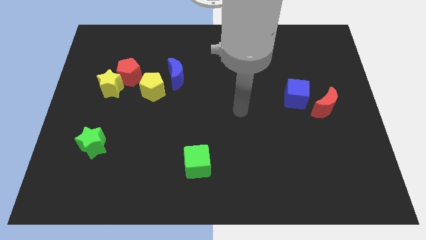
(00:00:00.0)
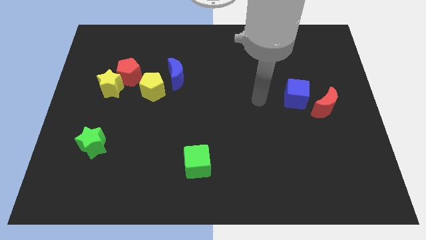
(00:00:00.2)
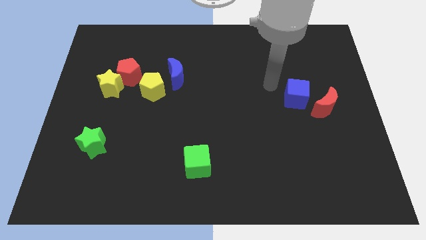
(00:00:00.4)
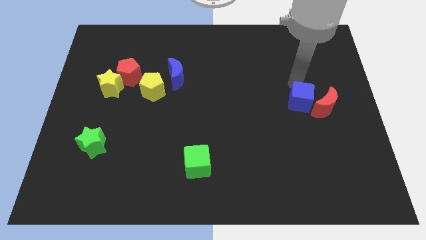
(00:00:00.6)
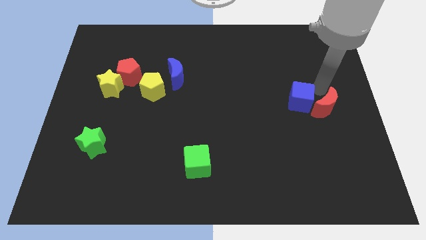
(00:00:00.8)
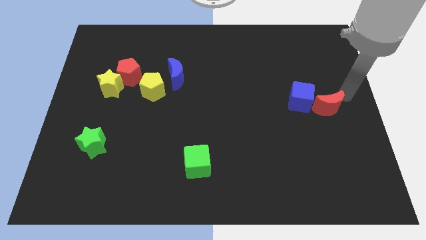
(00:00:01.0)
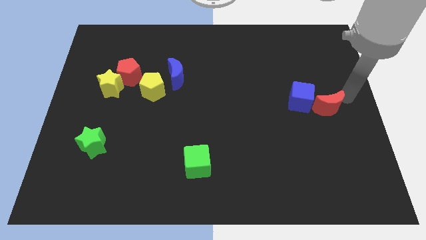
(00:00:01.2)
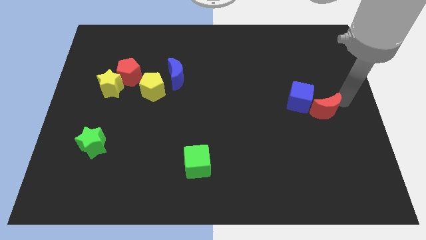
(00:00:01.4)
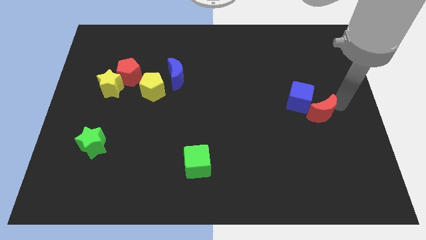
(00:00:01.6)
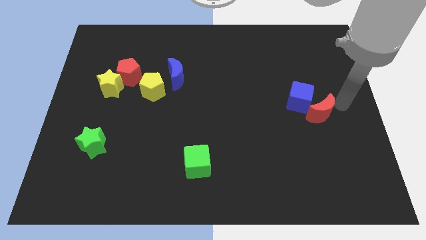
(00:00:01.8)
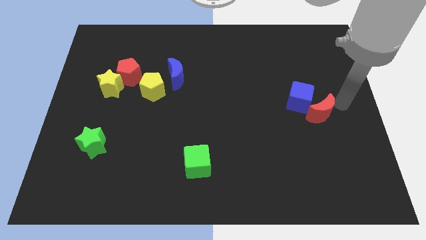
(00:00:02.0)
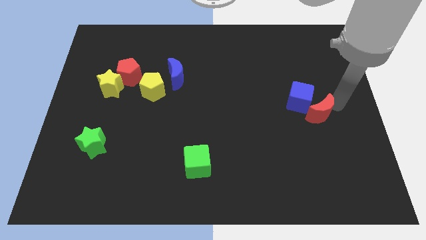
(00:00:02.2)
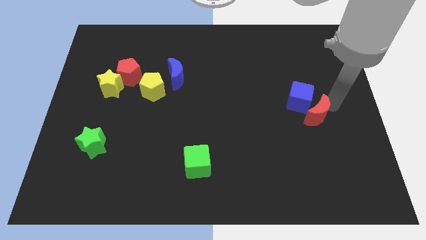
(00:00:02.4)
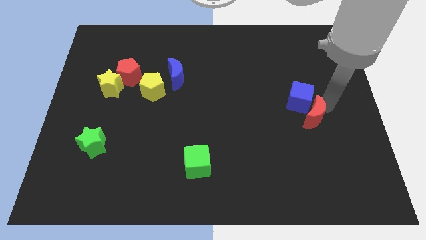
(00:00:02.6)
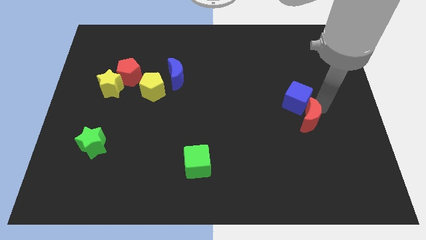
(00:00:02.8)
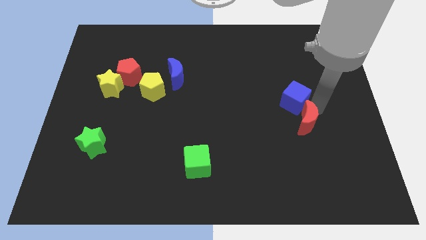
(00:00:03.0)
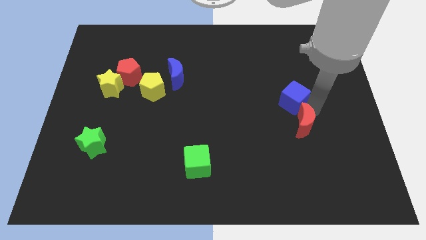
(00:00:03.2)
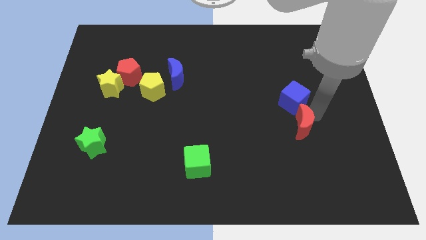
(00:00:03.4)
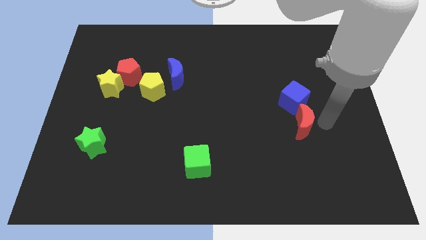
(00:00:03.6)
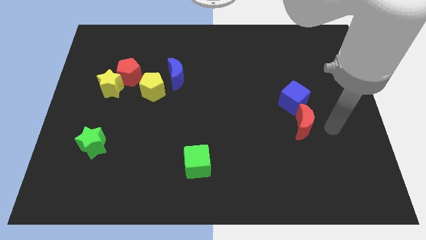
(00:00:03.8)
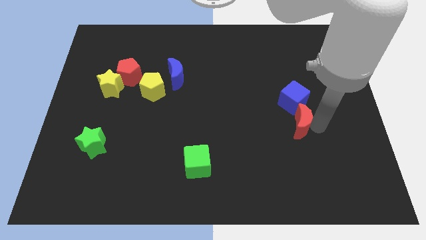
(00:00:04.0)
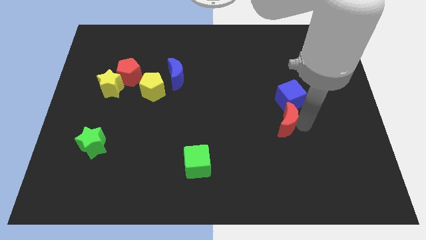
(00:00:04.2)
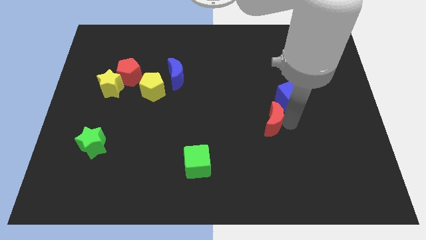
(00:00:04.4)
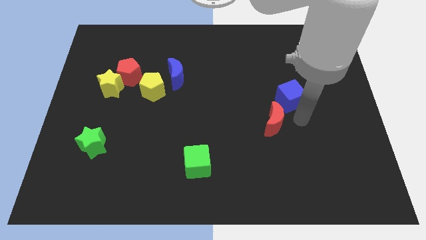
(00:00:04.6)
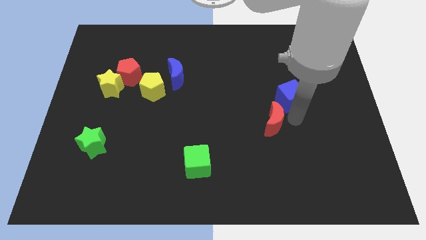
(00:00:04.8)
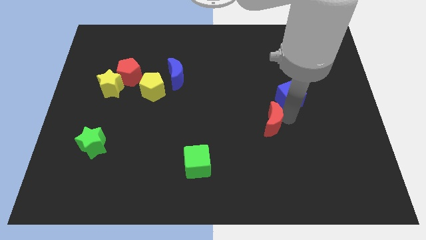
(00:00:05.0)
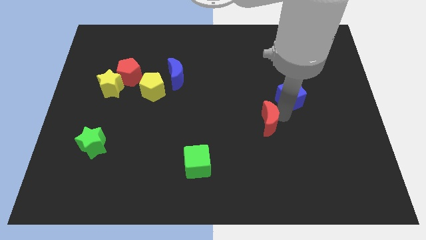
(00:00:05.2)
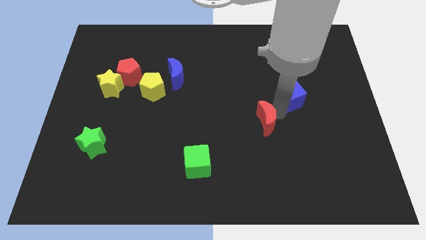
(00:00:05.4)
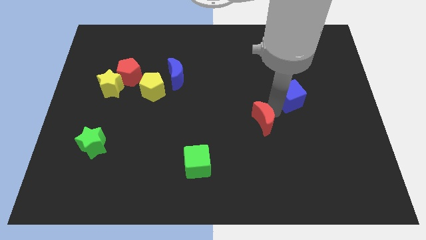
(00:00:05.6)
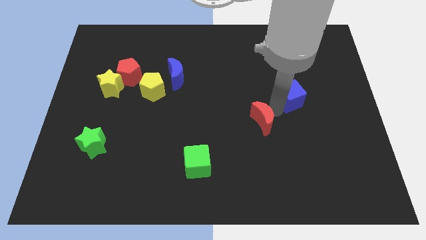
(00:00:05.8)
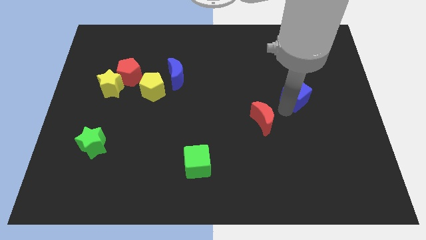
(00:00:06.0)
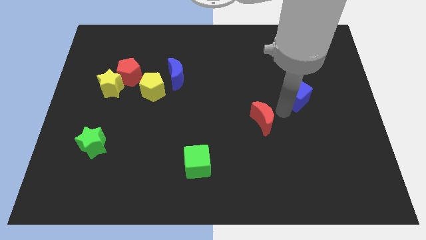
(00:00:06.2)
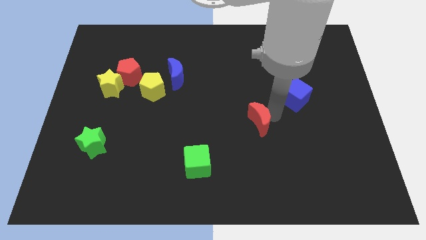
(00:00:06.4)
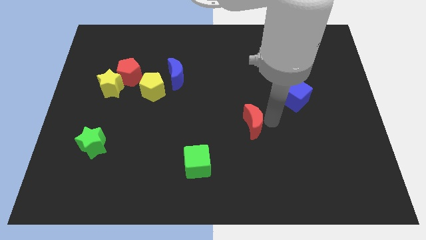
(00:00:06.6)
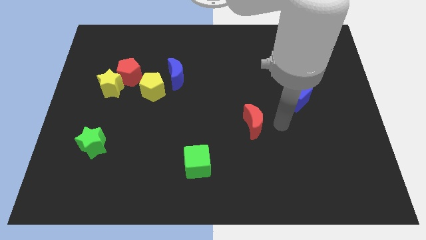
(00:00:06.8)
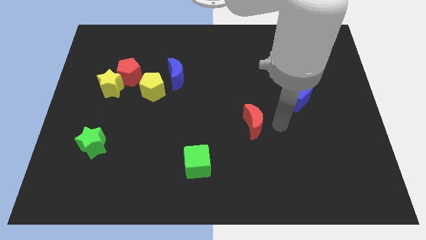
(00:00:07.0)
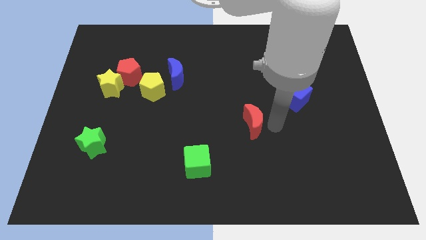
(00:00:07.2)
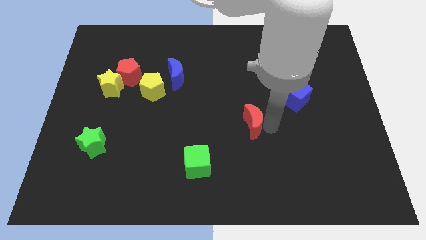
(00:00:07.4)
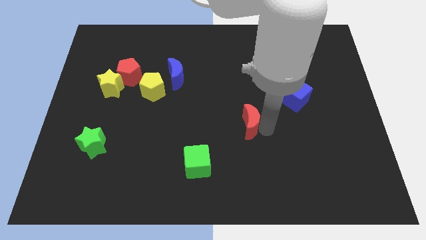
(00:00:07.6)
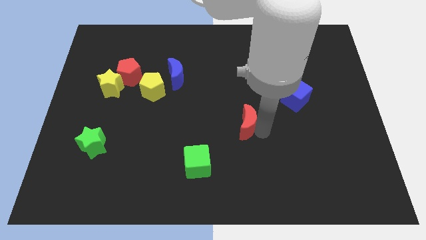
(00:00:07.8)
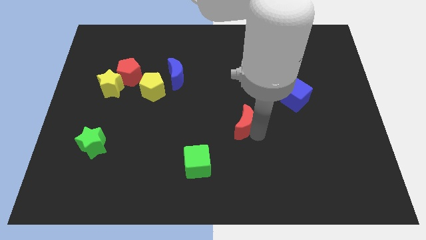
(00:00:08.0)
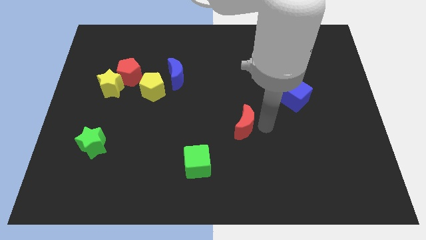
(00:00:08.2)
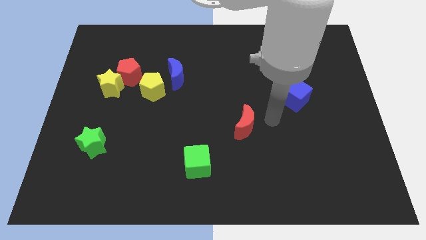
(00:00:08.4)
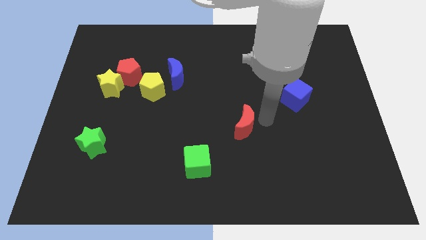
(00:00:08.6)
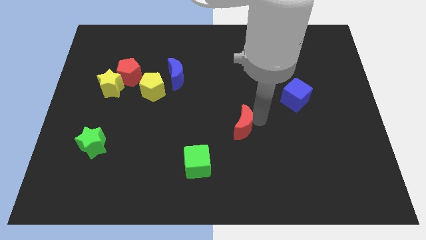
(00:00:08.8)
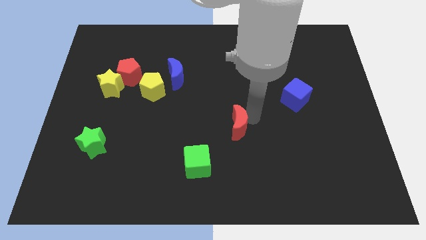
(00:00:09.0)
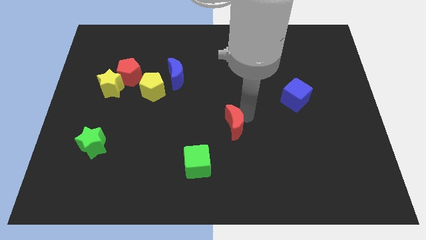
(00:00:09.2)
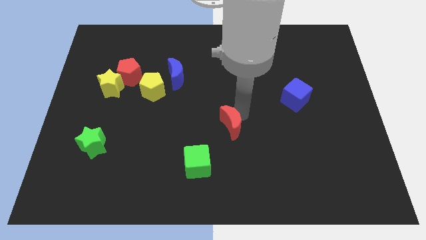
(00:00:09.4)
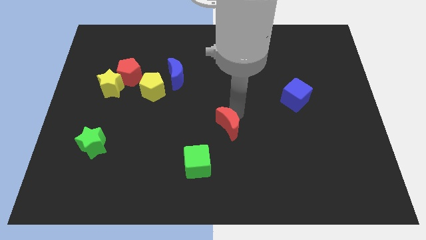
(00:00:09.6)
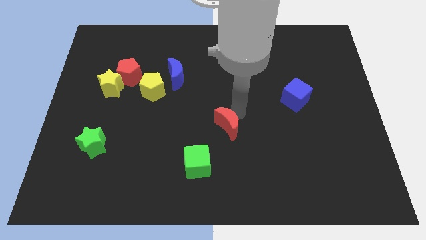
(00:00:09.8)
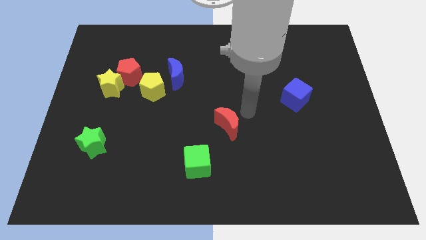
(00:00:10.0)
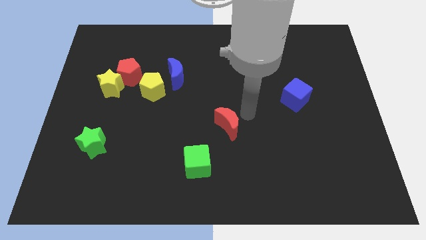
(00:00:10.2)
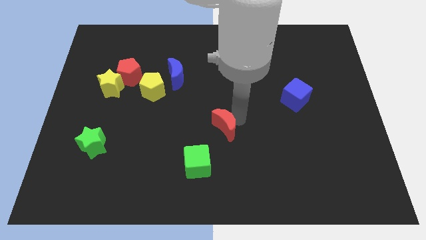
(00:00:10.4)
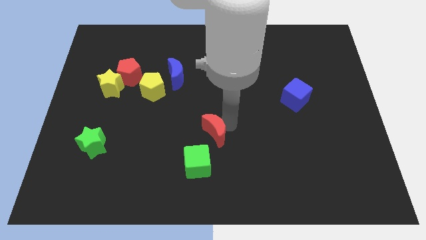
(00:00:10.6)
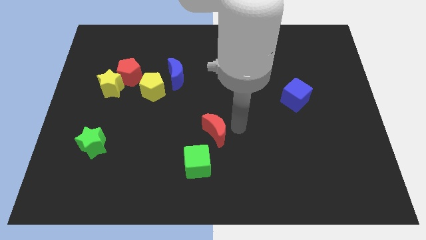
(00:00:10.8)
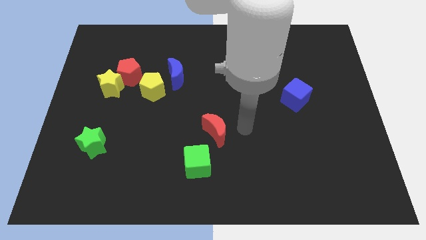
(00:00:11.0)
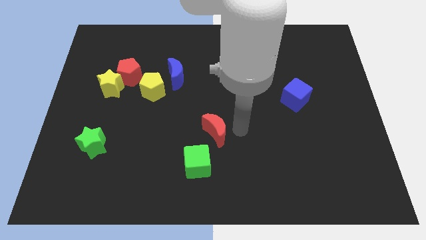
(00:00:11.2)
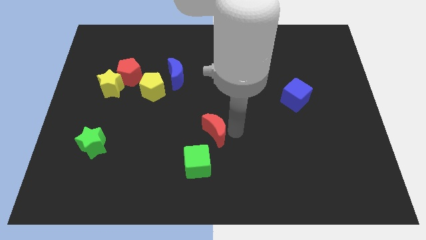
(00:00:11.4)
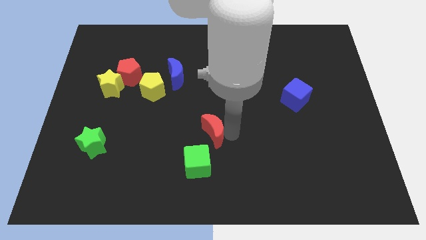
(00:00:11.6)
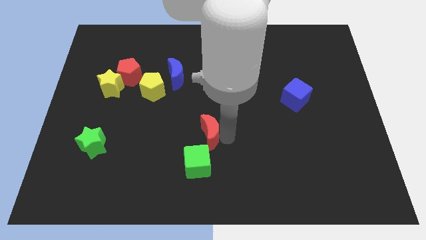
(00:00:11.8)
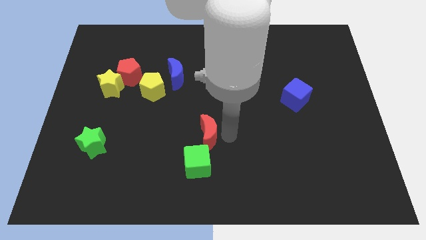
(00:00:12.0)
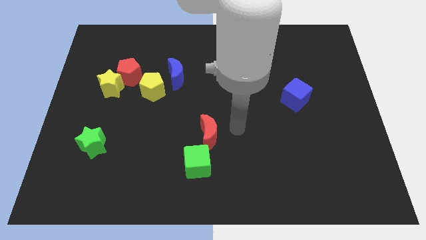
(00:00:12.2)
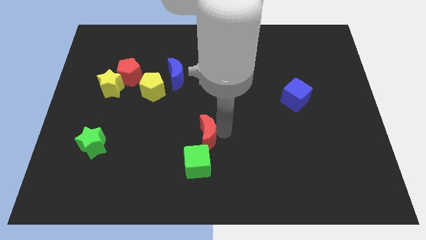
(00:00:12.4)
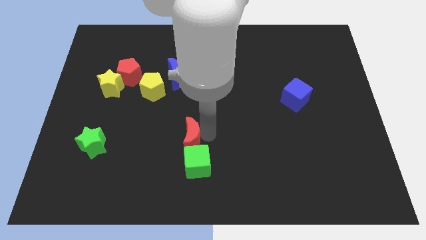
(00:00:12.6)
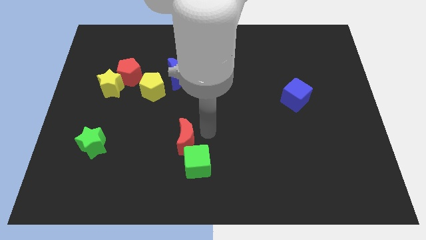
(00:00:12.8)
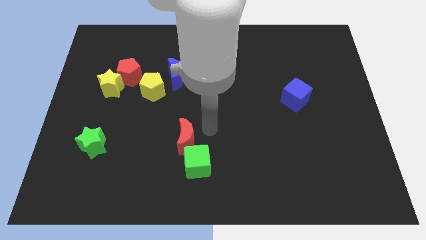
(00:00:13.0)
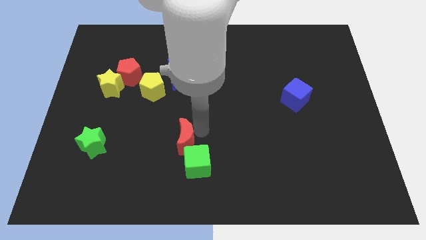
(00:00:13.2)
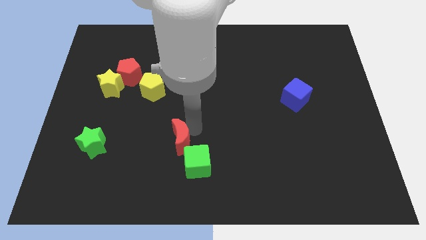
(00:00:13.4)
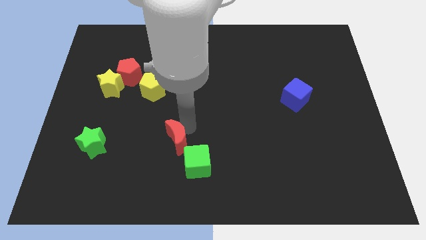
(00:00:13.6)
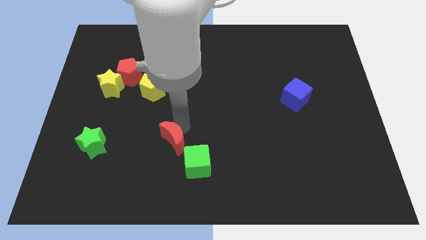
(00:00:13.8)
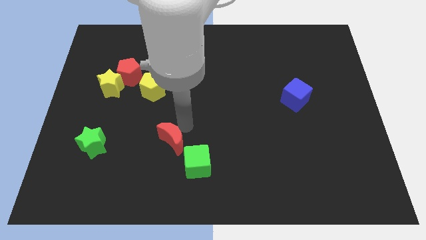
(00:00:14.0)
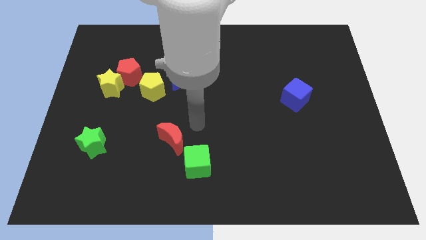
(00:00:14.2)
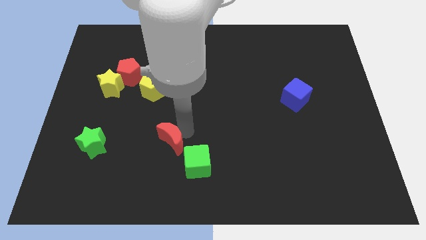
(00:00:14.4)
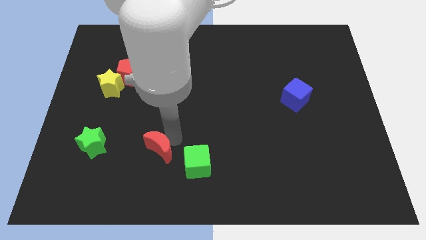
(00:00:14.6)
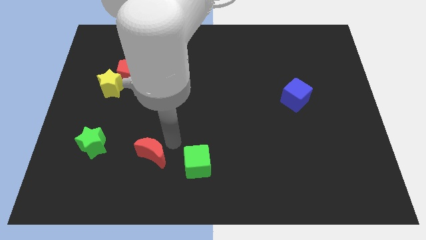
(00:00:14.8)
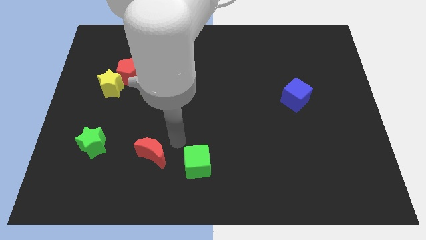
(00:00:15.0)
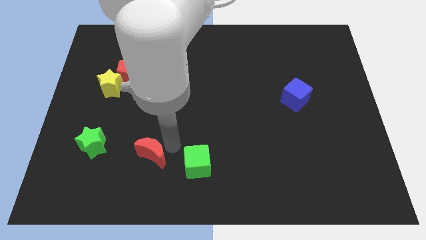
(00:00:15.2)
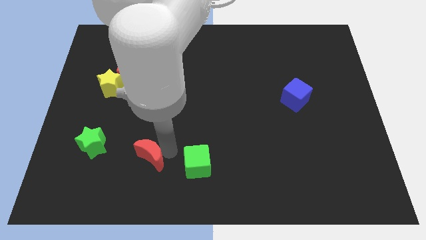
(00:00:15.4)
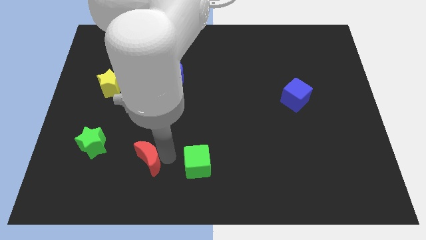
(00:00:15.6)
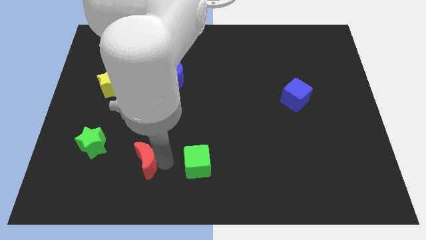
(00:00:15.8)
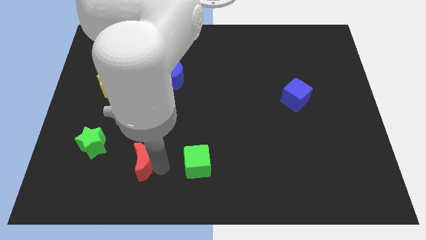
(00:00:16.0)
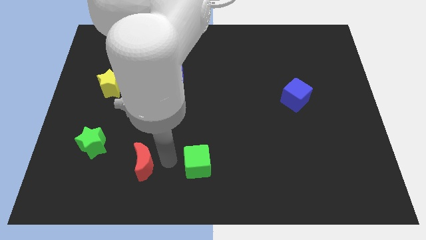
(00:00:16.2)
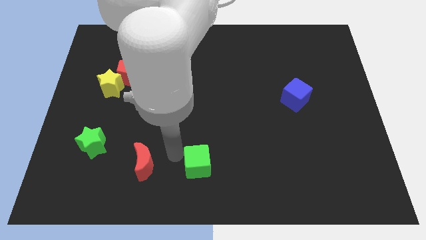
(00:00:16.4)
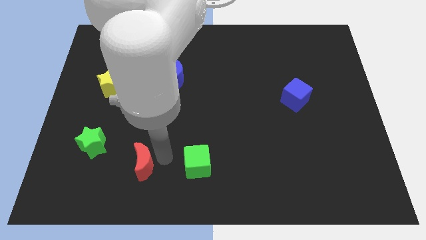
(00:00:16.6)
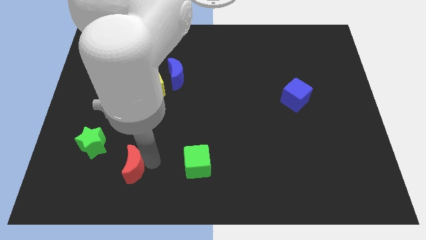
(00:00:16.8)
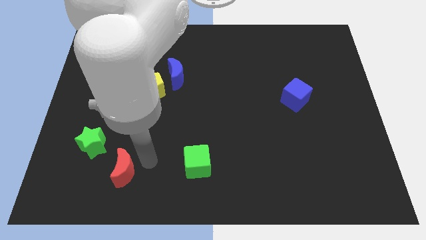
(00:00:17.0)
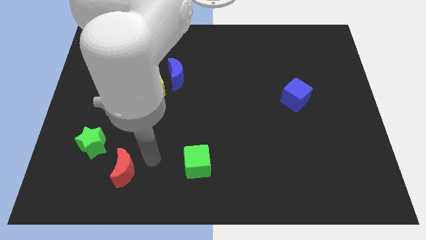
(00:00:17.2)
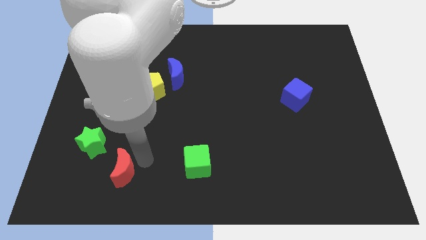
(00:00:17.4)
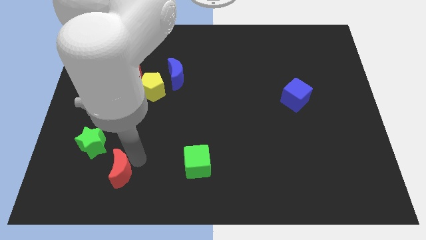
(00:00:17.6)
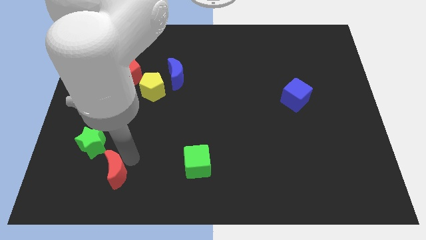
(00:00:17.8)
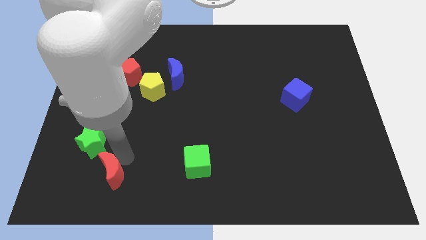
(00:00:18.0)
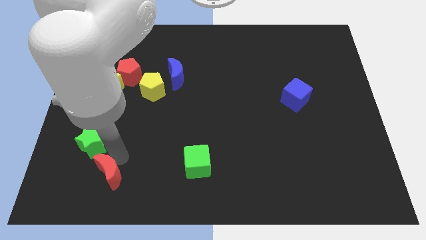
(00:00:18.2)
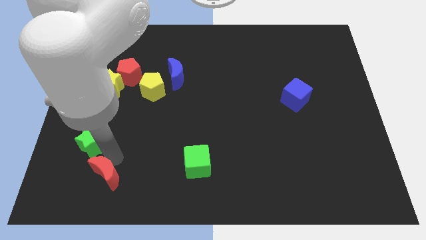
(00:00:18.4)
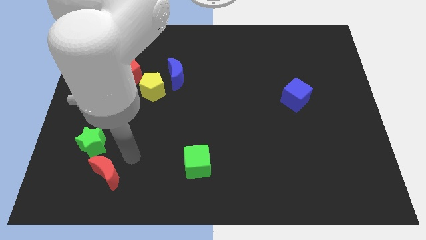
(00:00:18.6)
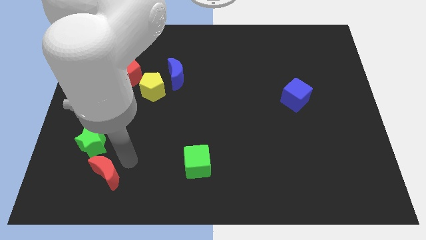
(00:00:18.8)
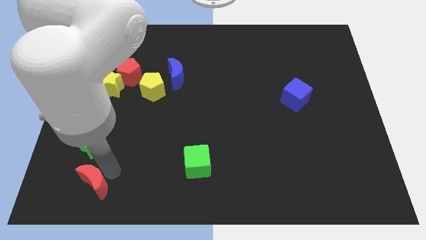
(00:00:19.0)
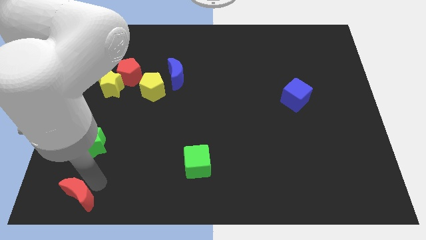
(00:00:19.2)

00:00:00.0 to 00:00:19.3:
push the red moon to the bottom left corner
